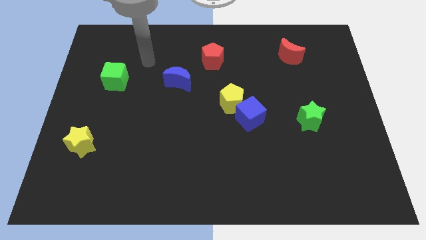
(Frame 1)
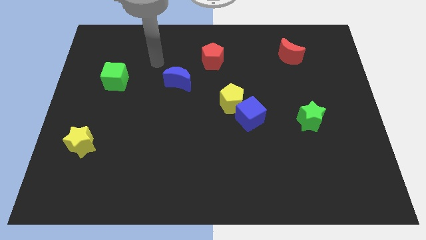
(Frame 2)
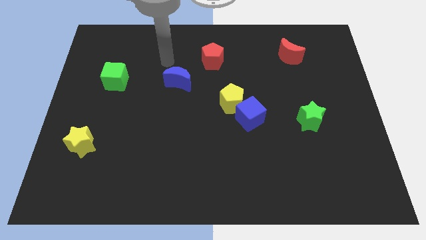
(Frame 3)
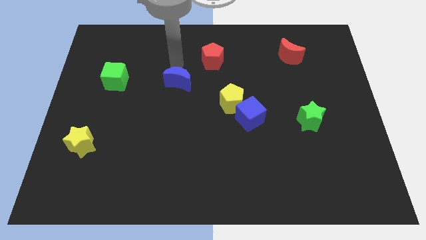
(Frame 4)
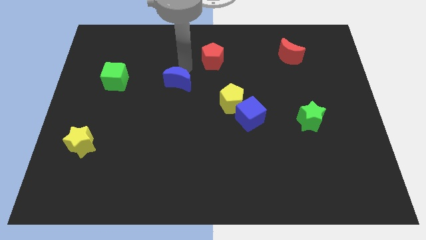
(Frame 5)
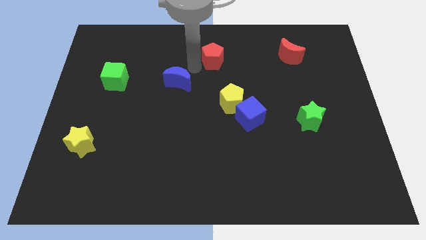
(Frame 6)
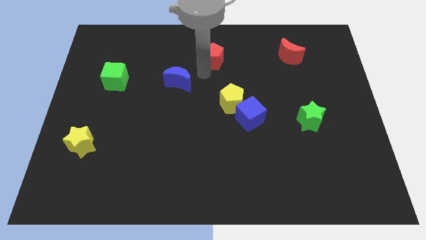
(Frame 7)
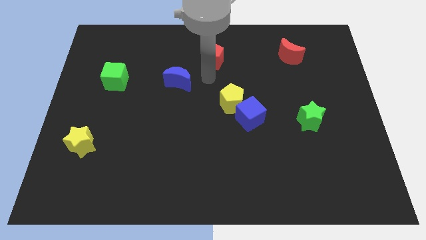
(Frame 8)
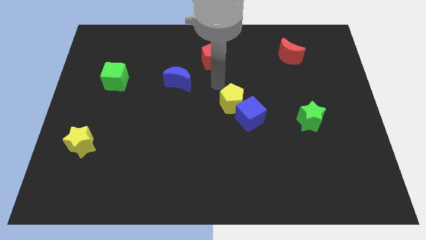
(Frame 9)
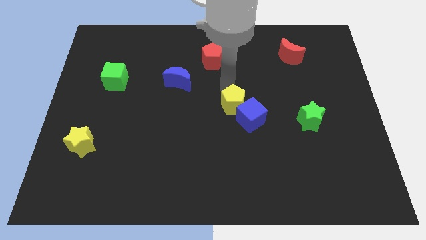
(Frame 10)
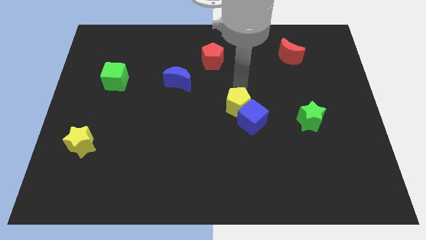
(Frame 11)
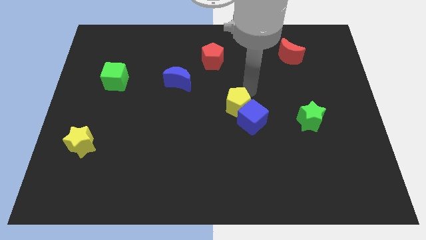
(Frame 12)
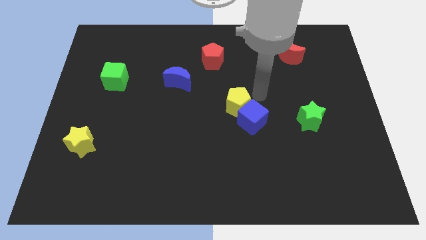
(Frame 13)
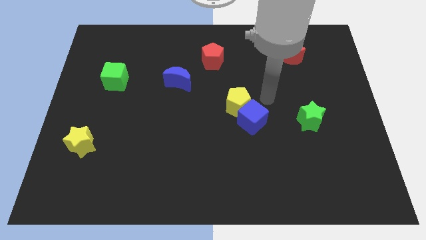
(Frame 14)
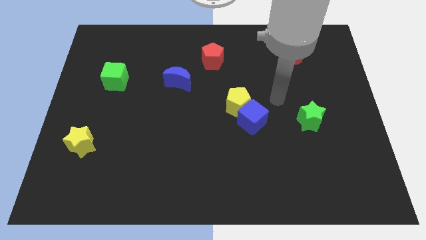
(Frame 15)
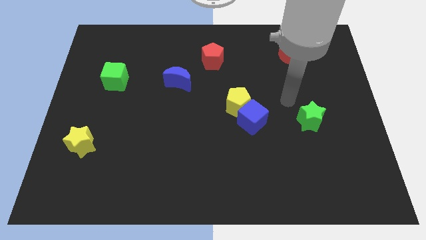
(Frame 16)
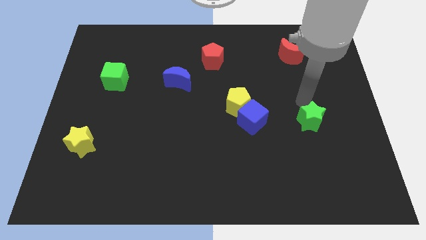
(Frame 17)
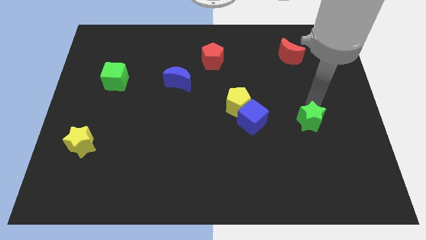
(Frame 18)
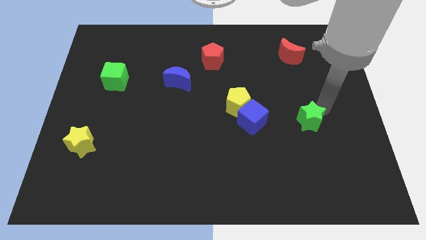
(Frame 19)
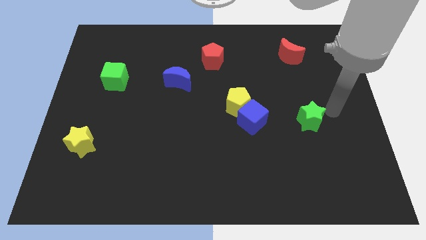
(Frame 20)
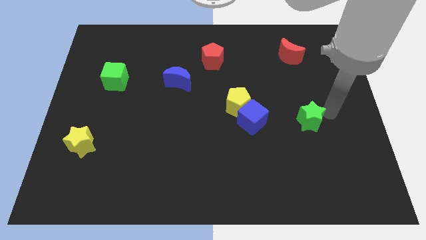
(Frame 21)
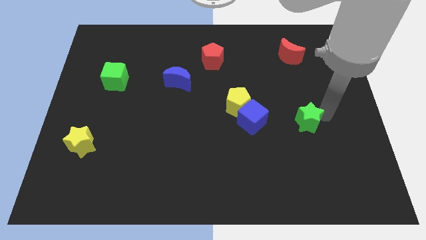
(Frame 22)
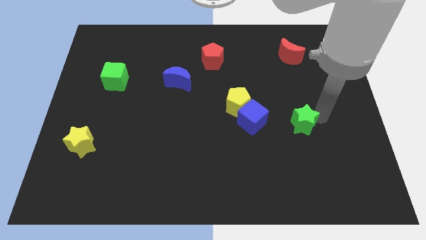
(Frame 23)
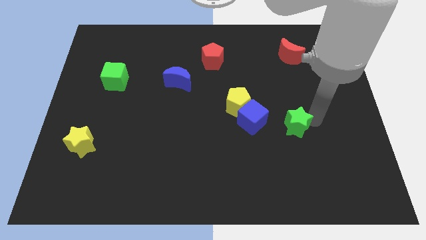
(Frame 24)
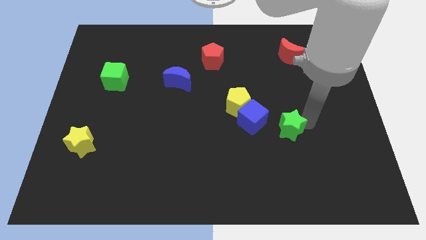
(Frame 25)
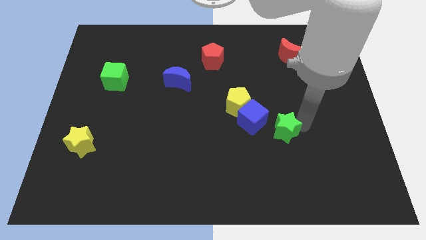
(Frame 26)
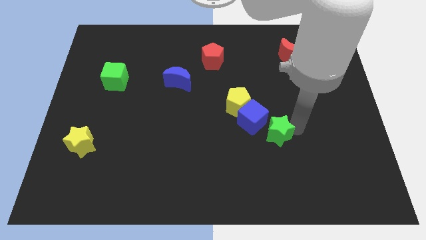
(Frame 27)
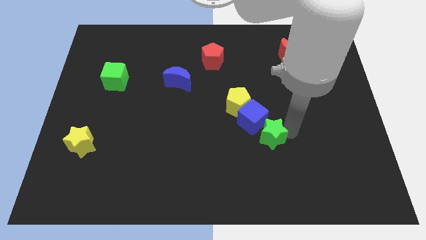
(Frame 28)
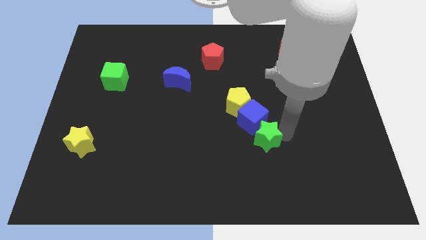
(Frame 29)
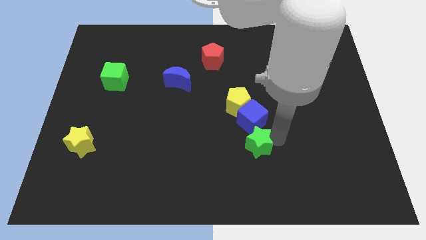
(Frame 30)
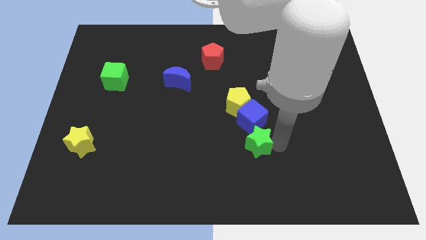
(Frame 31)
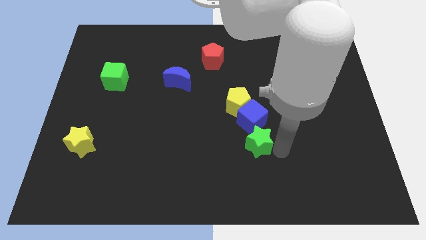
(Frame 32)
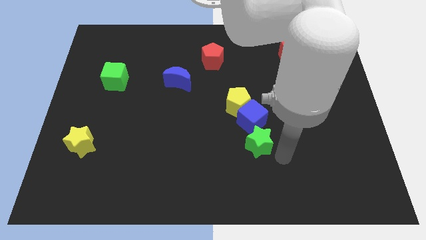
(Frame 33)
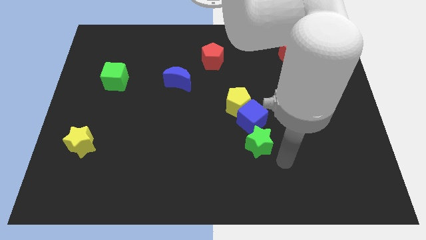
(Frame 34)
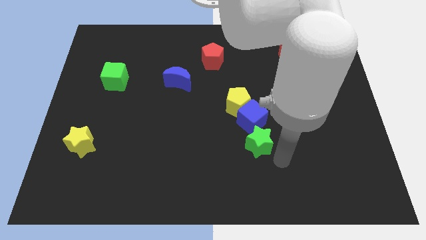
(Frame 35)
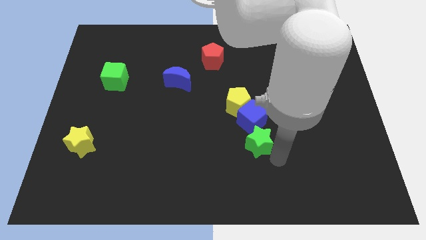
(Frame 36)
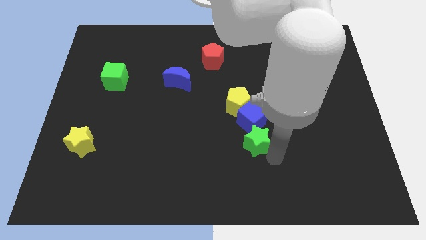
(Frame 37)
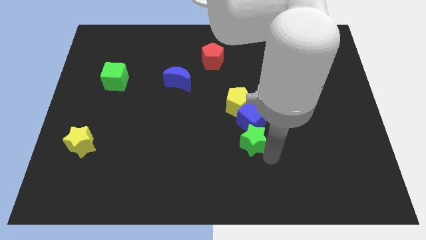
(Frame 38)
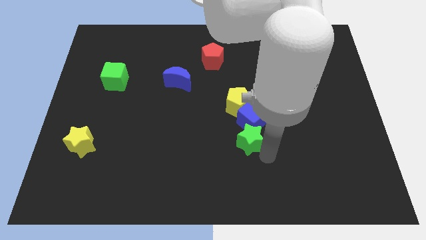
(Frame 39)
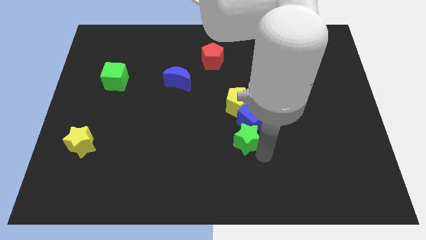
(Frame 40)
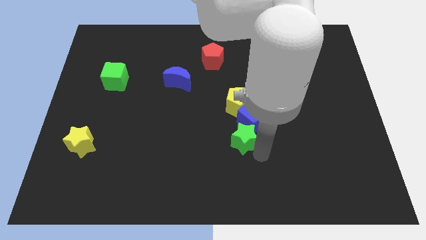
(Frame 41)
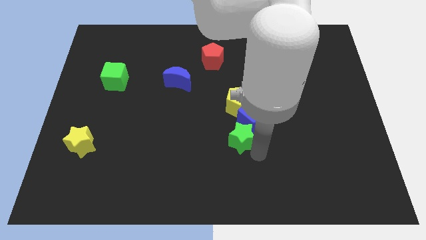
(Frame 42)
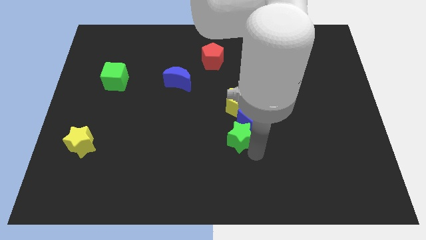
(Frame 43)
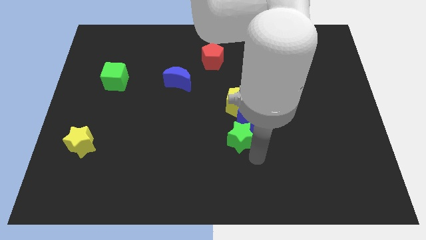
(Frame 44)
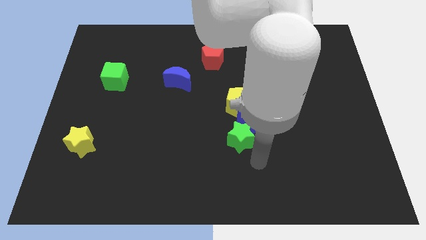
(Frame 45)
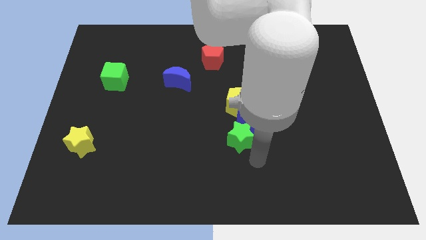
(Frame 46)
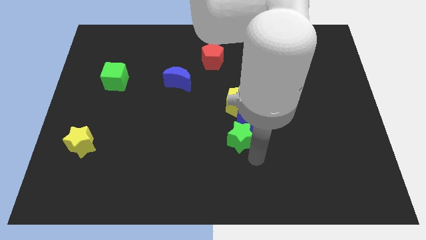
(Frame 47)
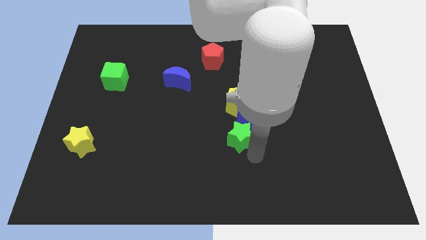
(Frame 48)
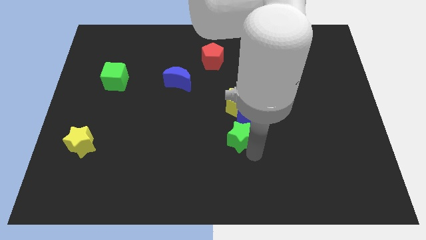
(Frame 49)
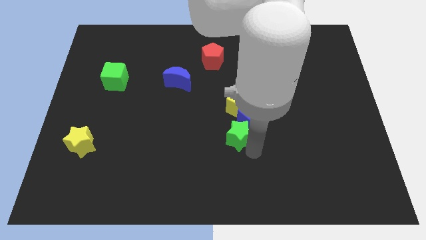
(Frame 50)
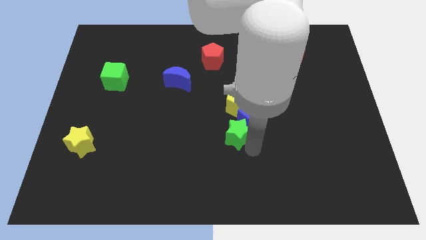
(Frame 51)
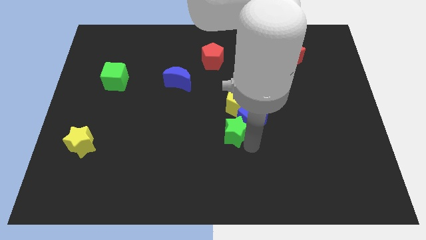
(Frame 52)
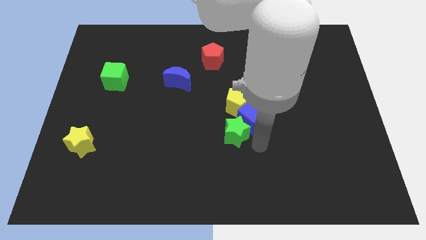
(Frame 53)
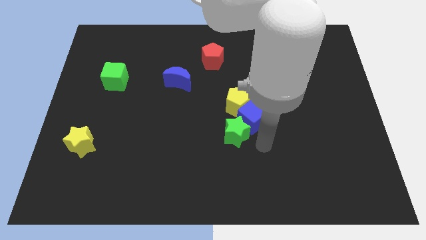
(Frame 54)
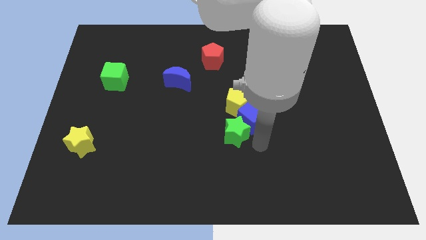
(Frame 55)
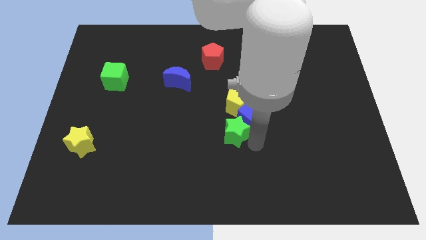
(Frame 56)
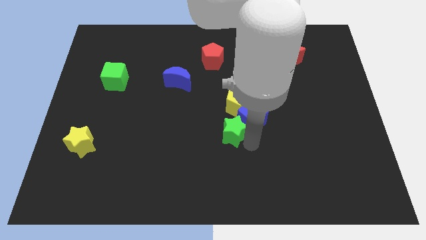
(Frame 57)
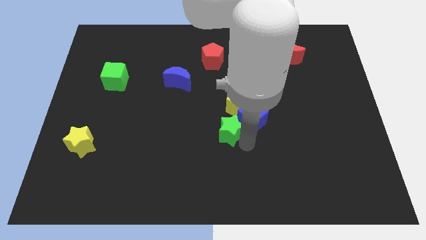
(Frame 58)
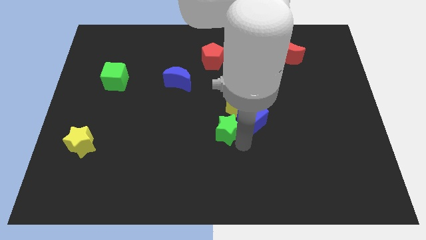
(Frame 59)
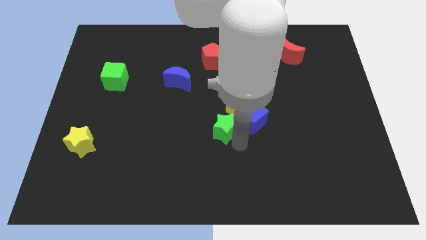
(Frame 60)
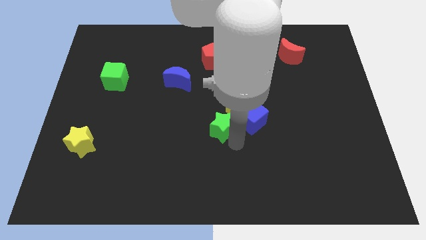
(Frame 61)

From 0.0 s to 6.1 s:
move the green star to the left

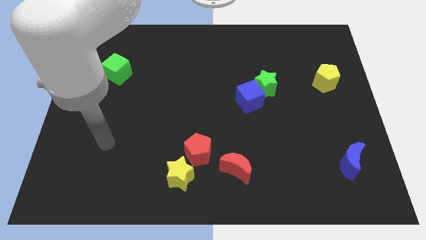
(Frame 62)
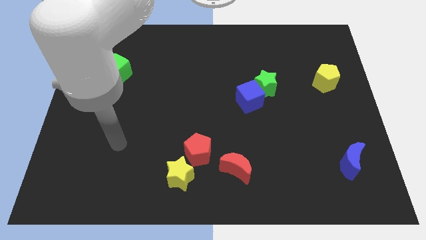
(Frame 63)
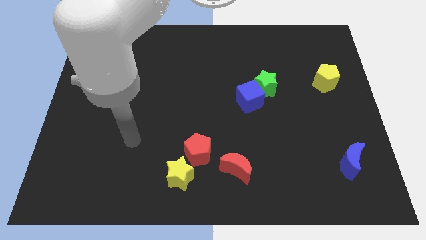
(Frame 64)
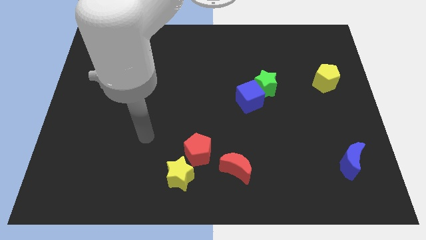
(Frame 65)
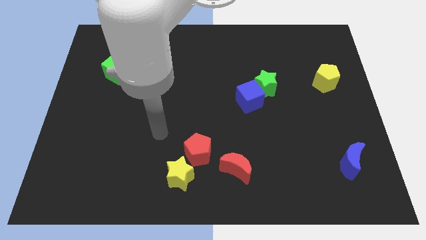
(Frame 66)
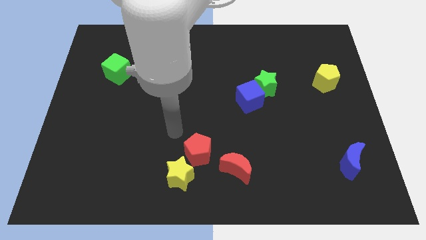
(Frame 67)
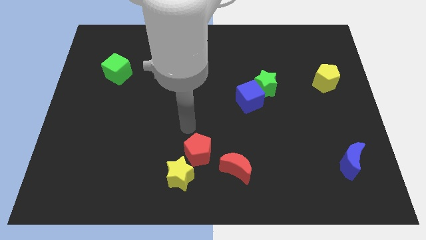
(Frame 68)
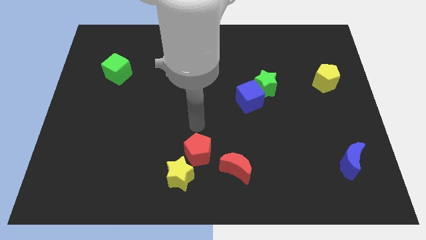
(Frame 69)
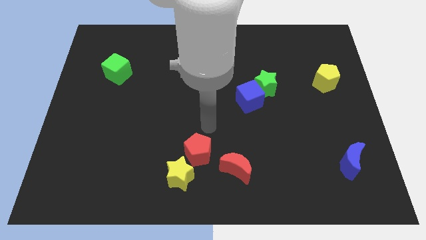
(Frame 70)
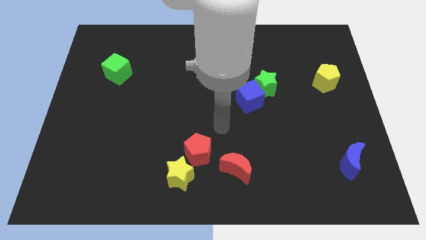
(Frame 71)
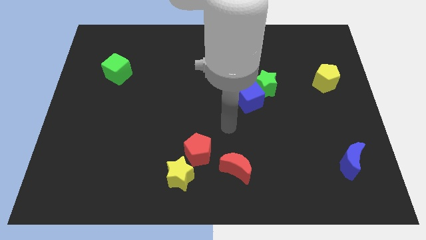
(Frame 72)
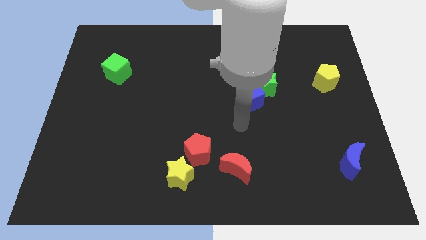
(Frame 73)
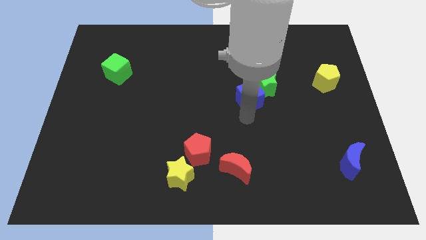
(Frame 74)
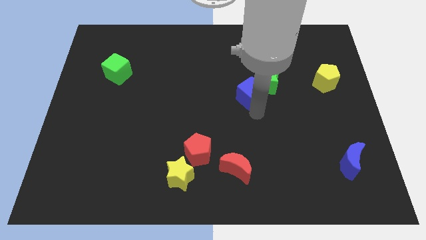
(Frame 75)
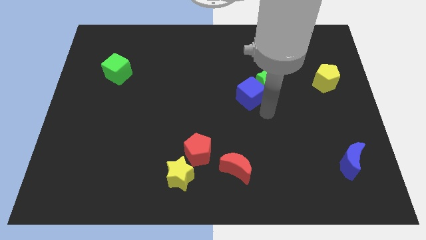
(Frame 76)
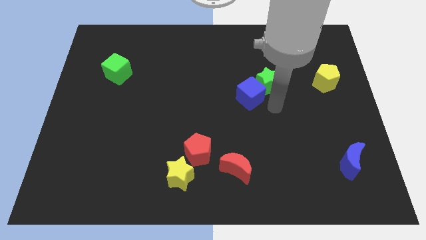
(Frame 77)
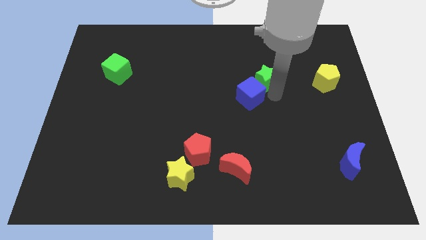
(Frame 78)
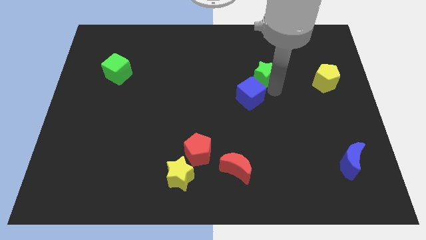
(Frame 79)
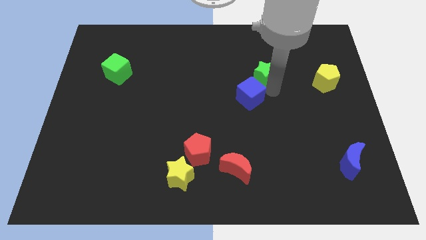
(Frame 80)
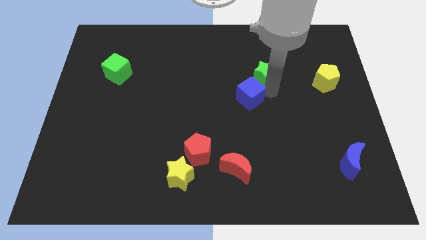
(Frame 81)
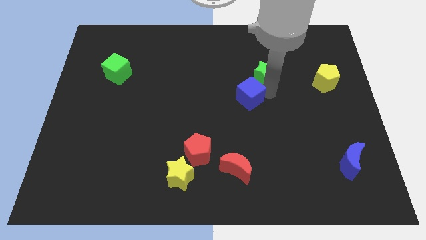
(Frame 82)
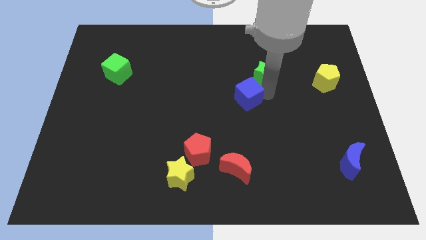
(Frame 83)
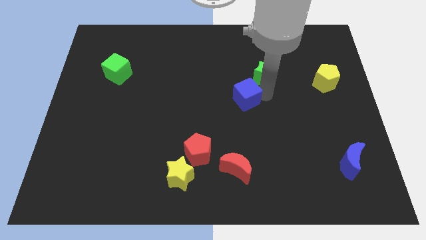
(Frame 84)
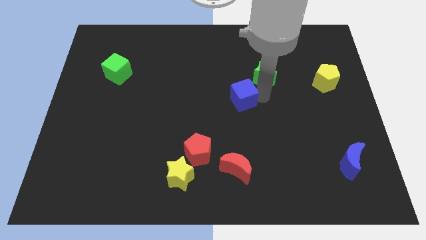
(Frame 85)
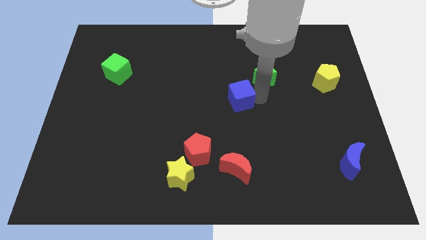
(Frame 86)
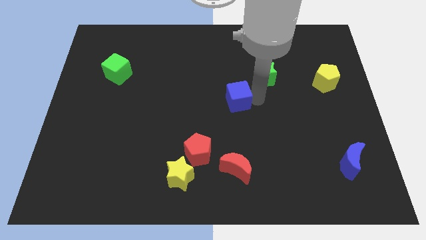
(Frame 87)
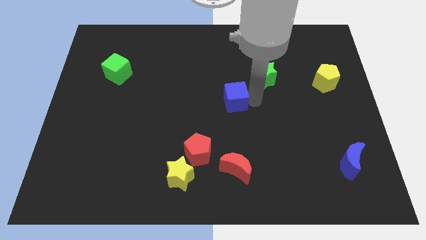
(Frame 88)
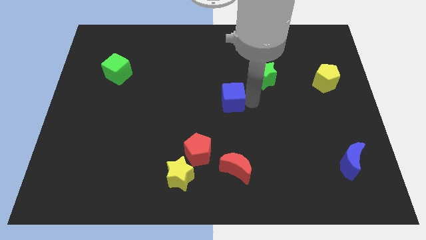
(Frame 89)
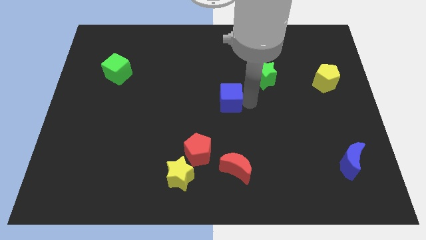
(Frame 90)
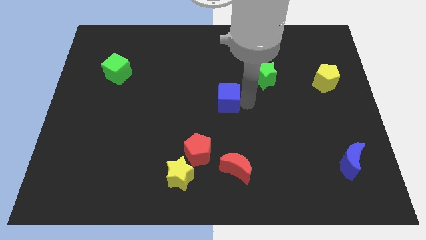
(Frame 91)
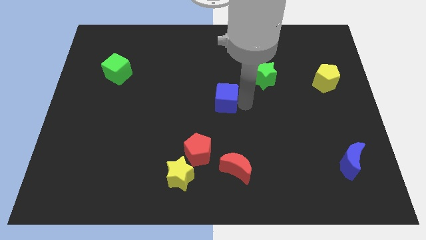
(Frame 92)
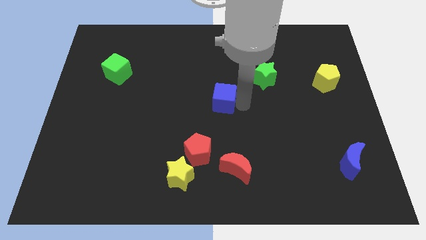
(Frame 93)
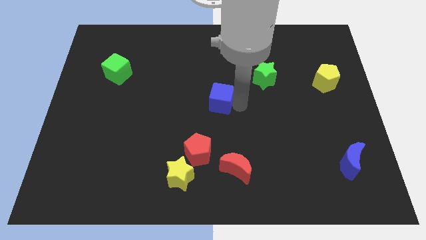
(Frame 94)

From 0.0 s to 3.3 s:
push the blue cube a little left
